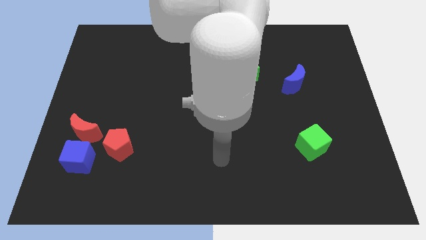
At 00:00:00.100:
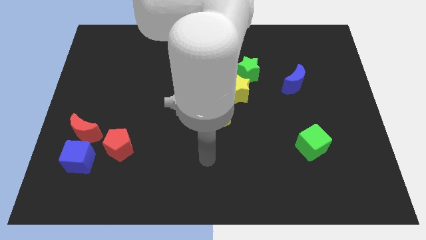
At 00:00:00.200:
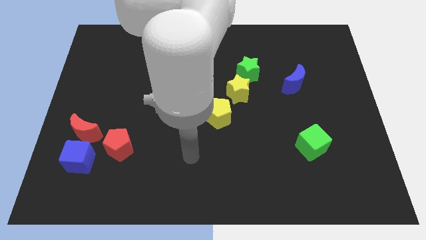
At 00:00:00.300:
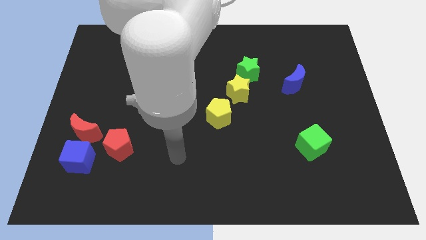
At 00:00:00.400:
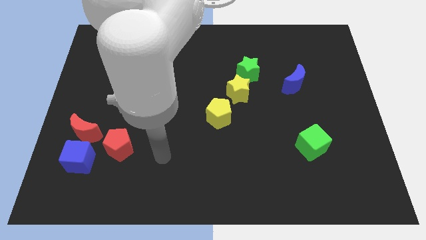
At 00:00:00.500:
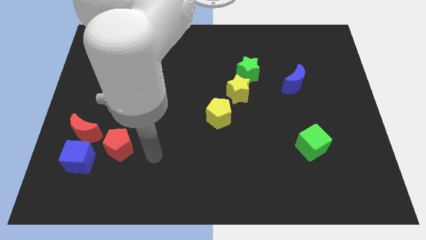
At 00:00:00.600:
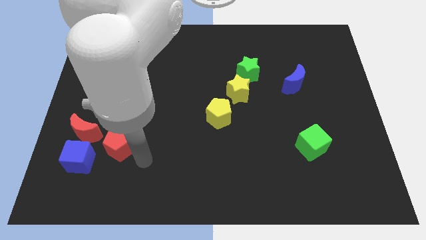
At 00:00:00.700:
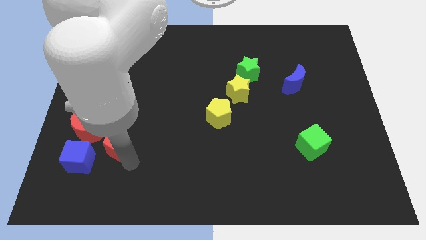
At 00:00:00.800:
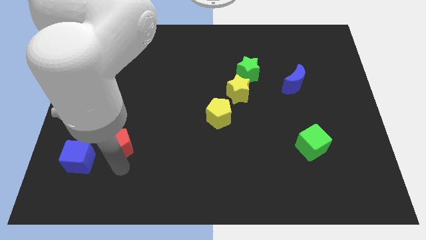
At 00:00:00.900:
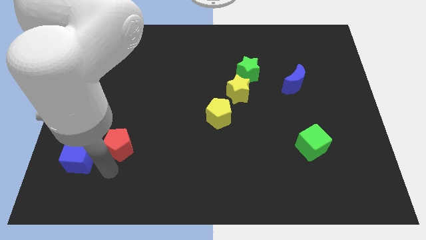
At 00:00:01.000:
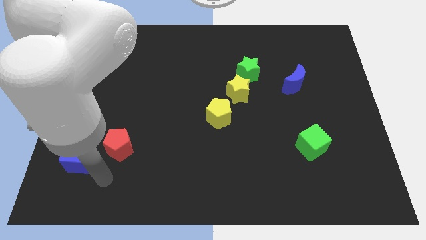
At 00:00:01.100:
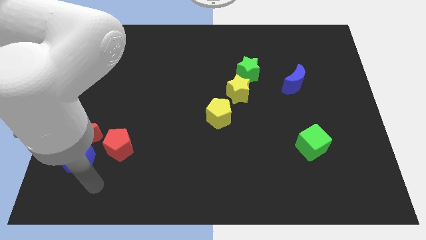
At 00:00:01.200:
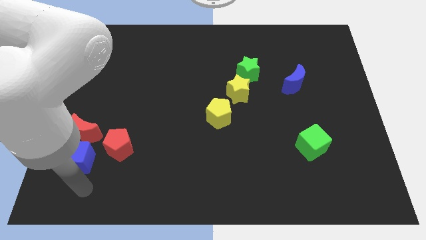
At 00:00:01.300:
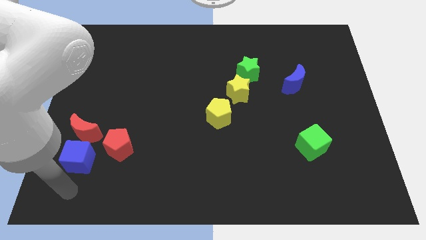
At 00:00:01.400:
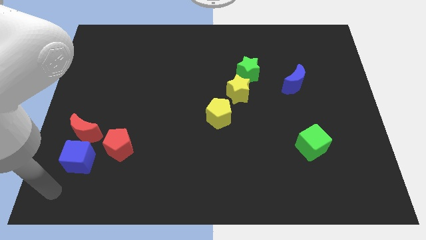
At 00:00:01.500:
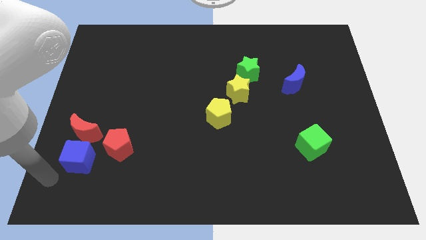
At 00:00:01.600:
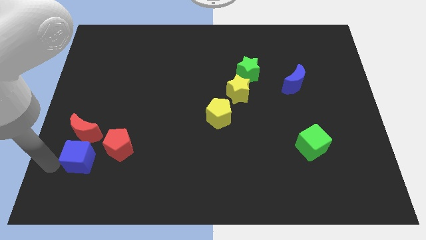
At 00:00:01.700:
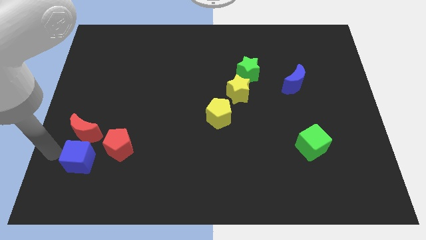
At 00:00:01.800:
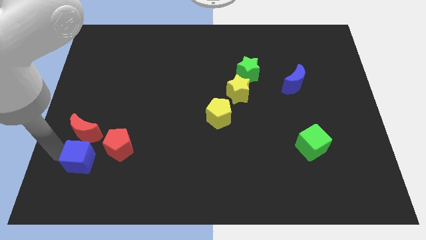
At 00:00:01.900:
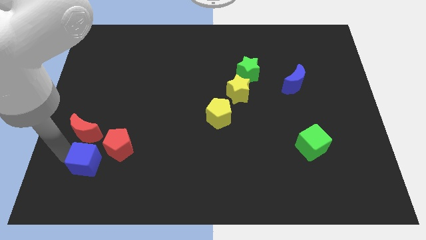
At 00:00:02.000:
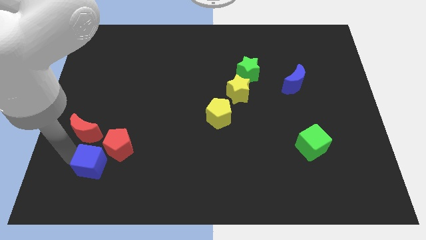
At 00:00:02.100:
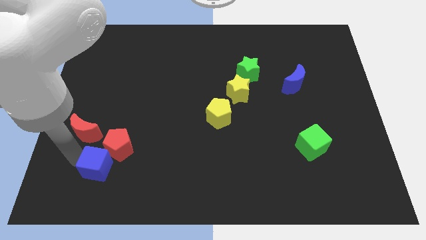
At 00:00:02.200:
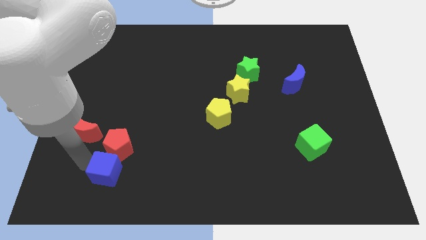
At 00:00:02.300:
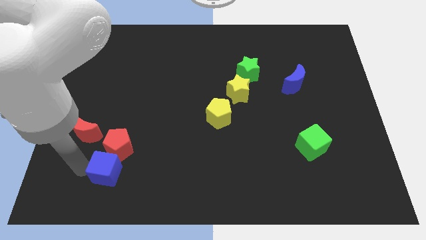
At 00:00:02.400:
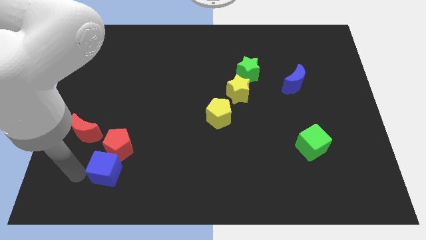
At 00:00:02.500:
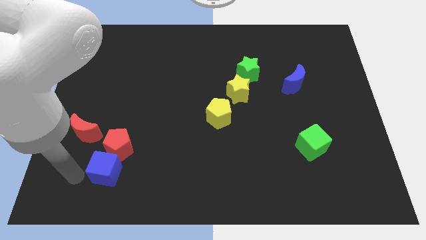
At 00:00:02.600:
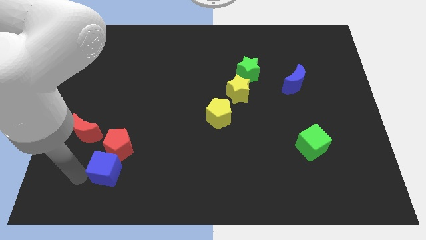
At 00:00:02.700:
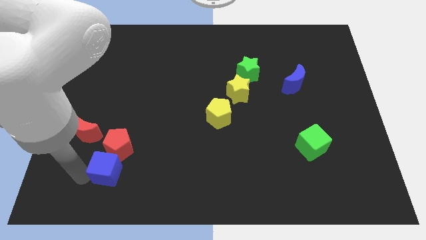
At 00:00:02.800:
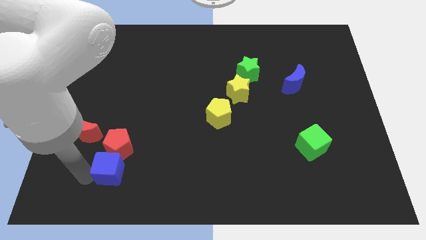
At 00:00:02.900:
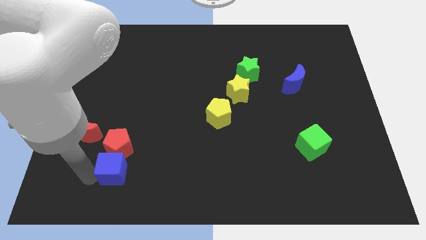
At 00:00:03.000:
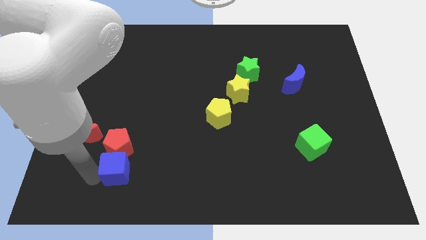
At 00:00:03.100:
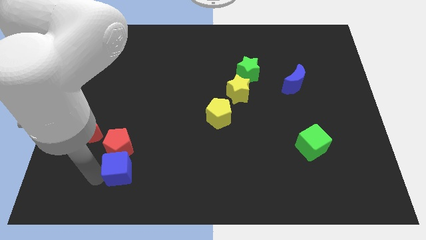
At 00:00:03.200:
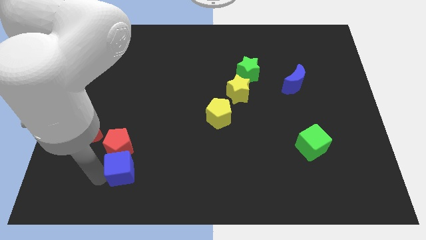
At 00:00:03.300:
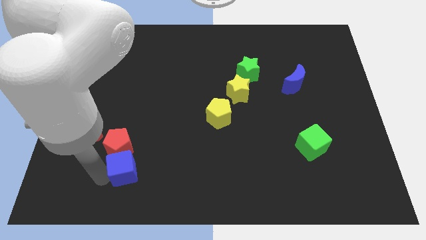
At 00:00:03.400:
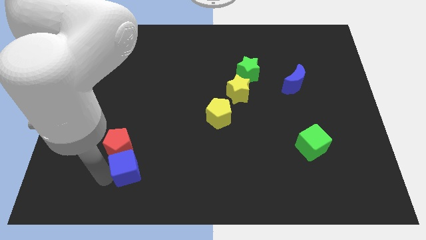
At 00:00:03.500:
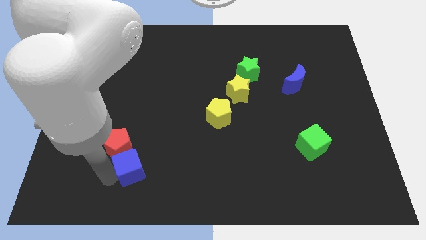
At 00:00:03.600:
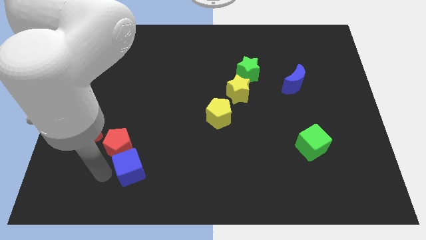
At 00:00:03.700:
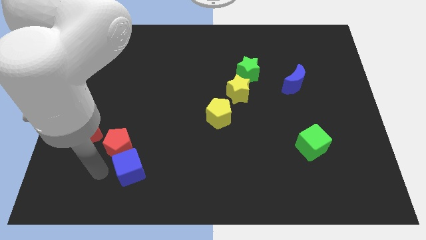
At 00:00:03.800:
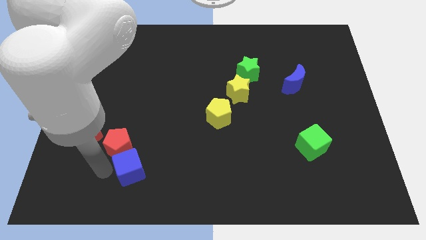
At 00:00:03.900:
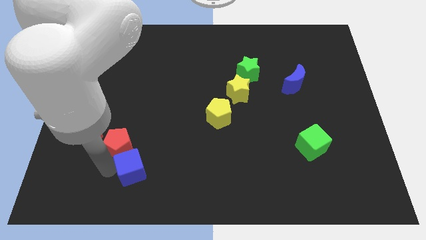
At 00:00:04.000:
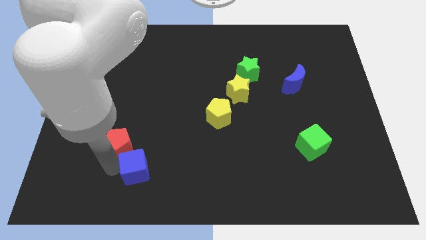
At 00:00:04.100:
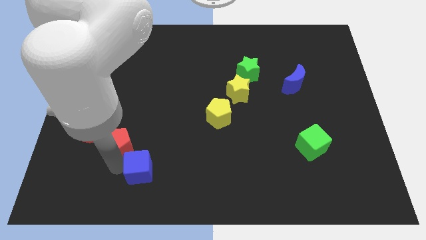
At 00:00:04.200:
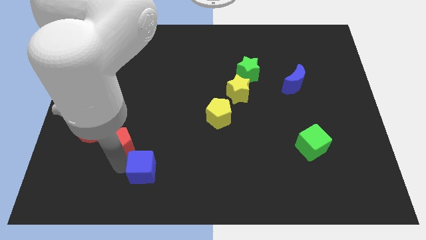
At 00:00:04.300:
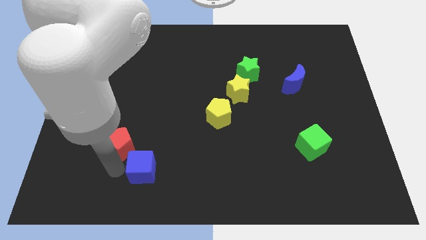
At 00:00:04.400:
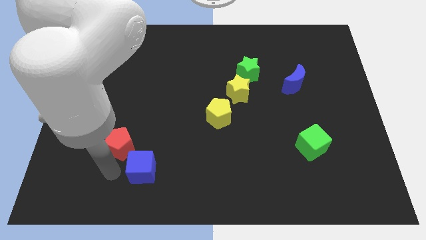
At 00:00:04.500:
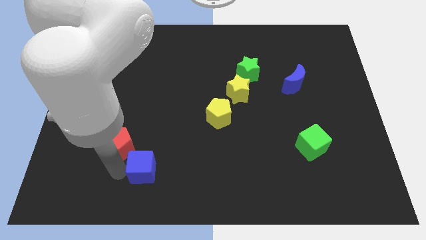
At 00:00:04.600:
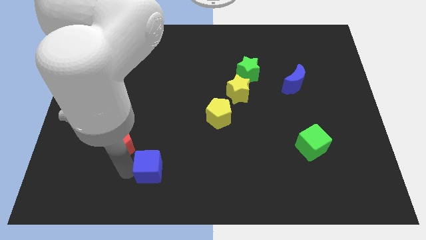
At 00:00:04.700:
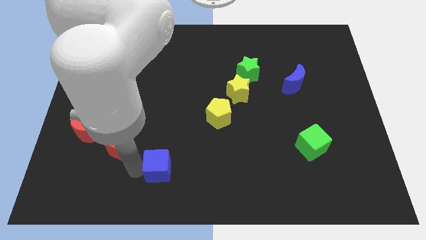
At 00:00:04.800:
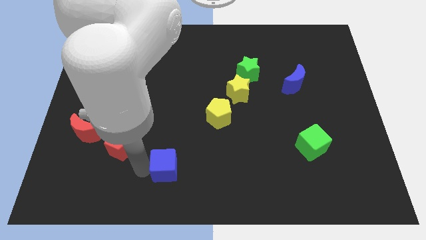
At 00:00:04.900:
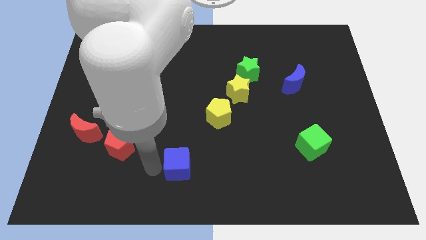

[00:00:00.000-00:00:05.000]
push the blue cube right

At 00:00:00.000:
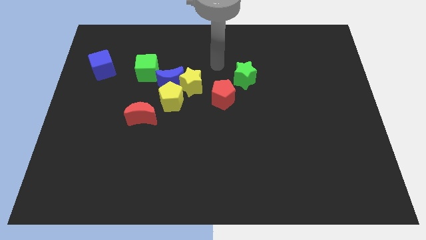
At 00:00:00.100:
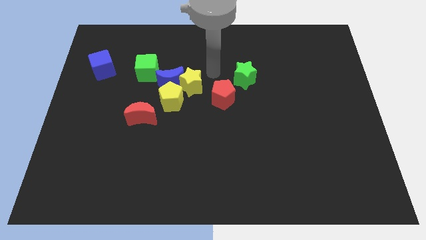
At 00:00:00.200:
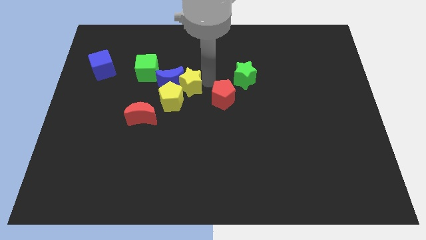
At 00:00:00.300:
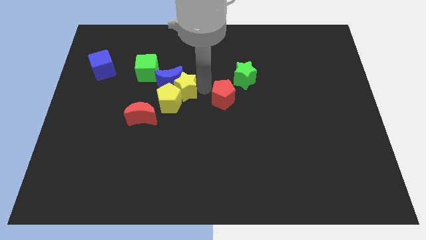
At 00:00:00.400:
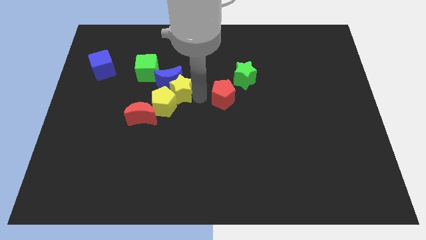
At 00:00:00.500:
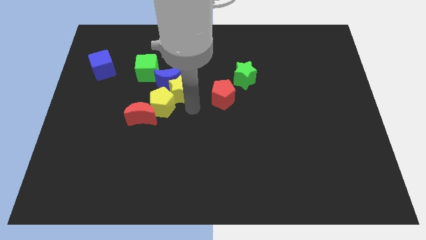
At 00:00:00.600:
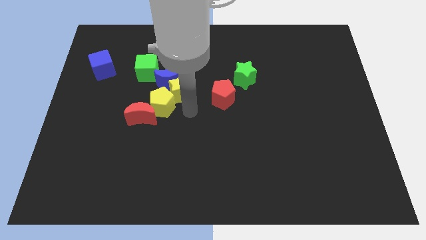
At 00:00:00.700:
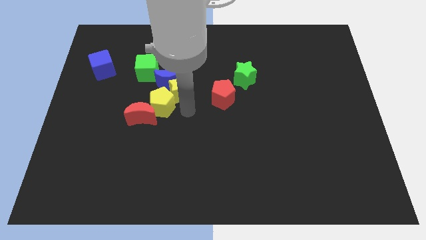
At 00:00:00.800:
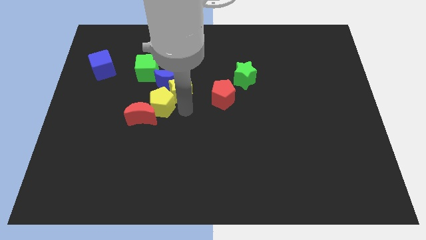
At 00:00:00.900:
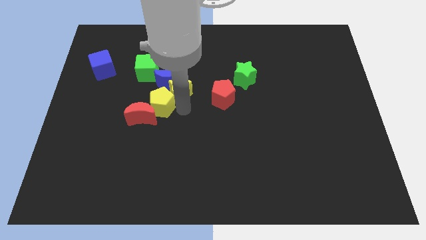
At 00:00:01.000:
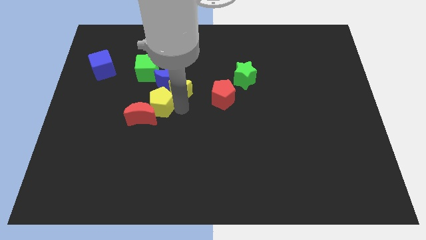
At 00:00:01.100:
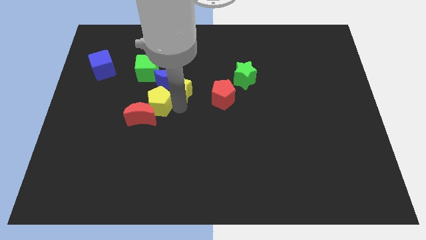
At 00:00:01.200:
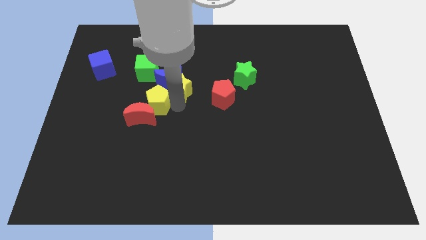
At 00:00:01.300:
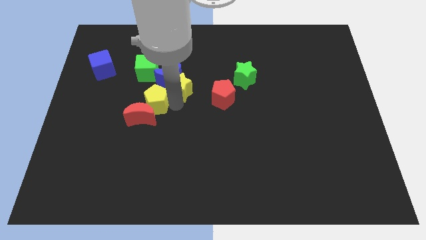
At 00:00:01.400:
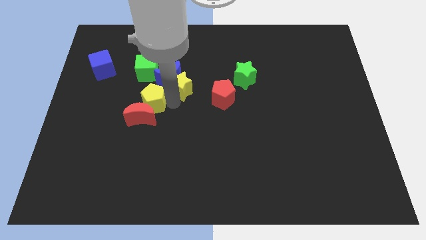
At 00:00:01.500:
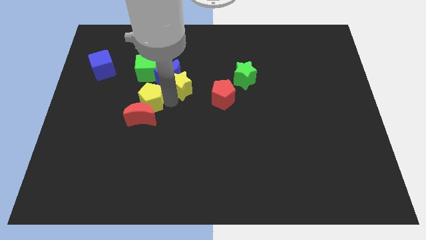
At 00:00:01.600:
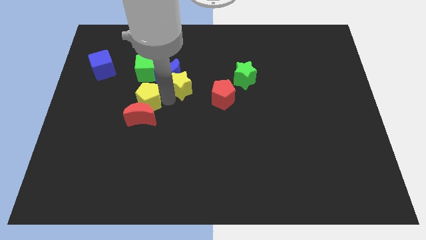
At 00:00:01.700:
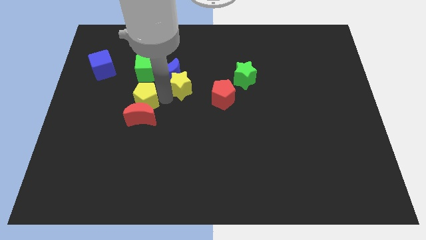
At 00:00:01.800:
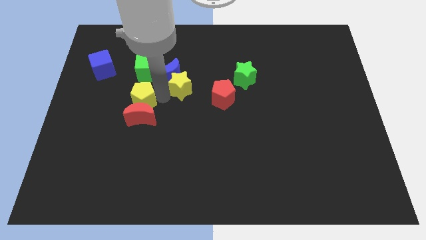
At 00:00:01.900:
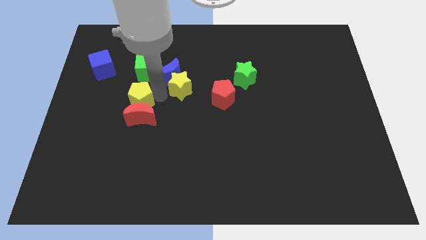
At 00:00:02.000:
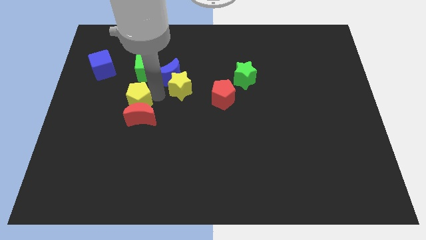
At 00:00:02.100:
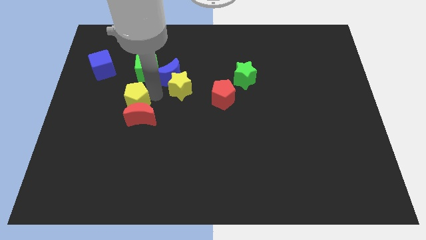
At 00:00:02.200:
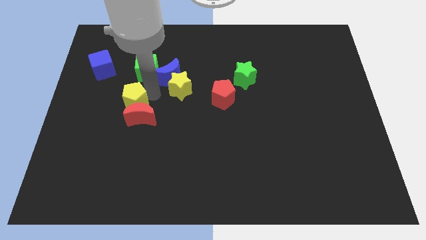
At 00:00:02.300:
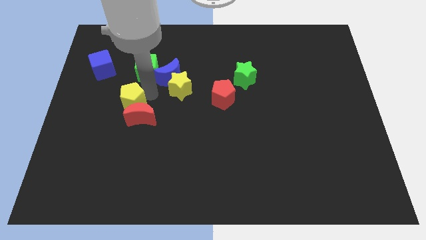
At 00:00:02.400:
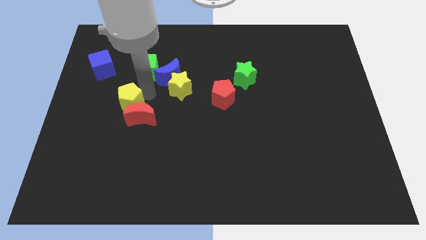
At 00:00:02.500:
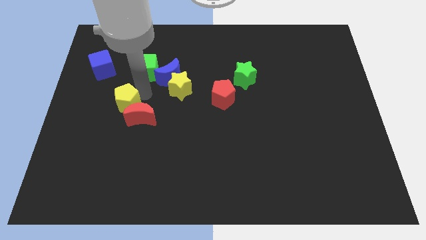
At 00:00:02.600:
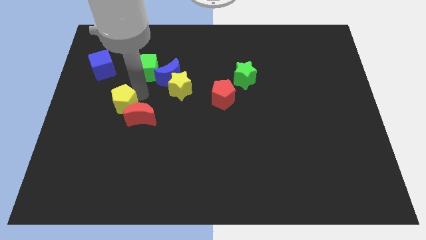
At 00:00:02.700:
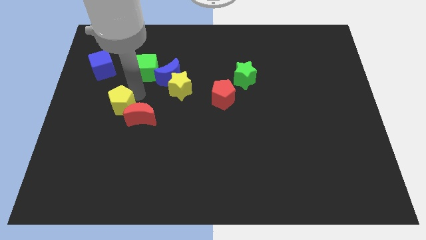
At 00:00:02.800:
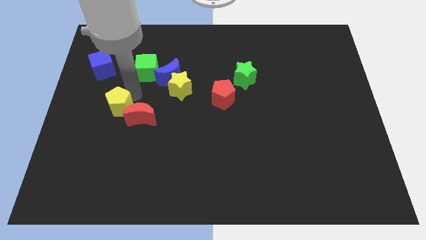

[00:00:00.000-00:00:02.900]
slide the yellow pentagon a little bit down and left

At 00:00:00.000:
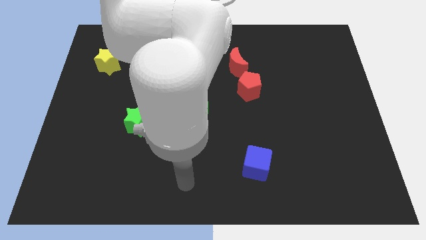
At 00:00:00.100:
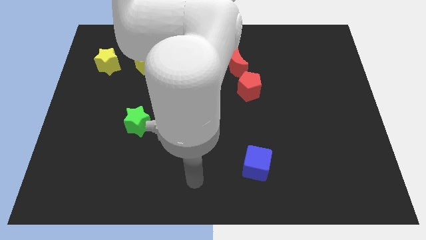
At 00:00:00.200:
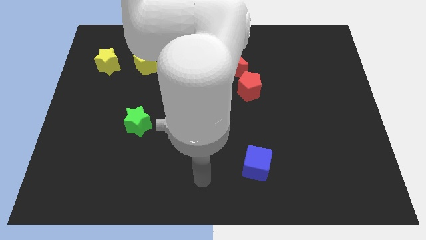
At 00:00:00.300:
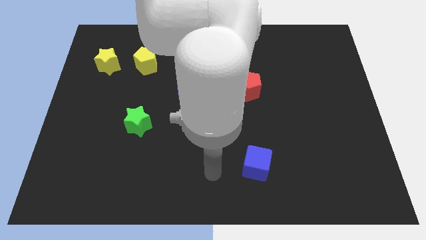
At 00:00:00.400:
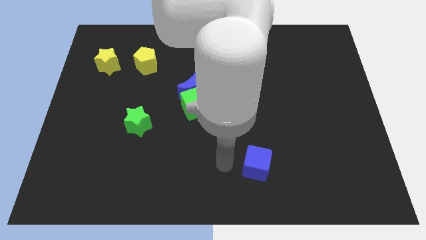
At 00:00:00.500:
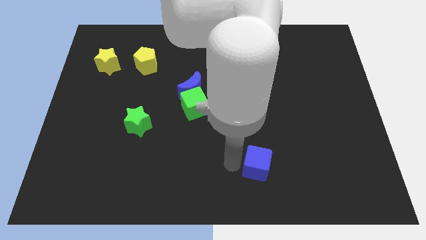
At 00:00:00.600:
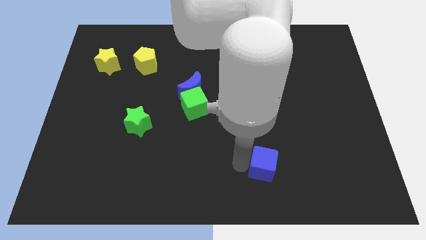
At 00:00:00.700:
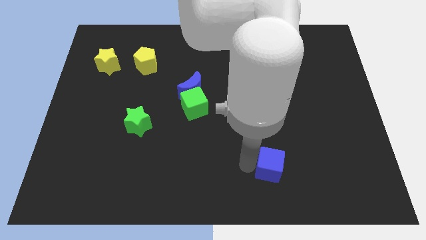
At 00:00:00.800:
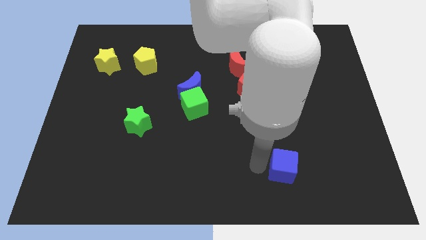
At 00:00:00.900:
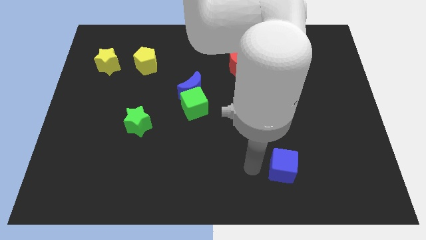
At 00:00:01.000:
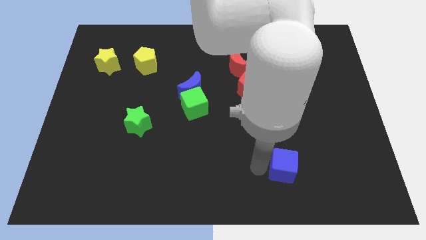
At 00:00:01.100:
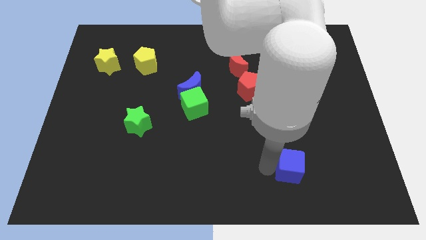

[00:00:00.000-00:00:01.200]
slightly slide the blue cube right
